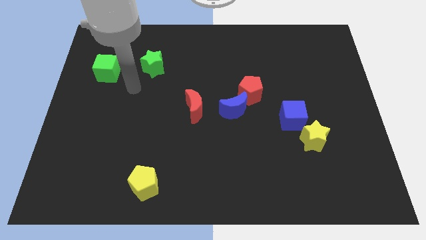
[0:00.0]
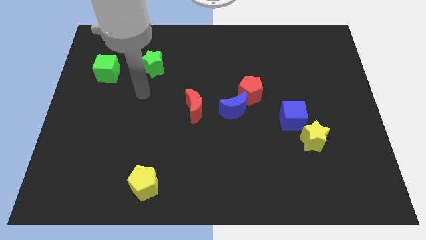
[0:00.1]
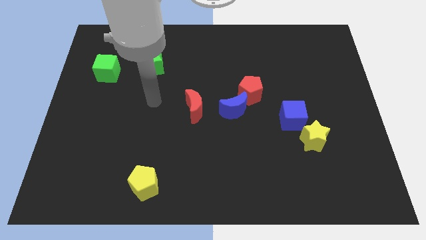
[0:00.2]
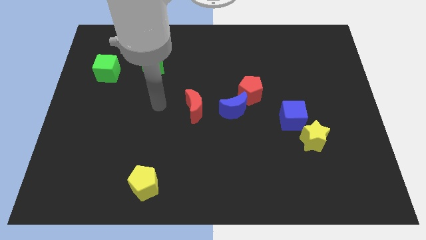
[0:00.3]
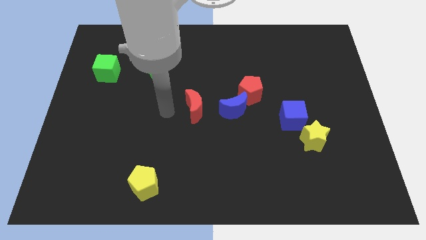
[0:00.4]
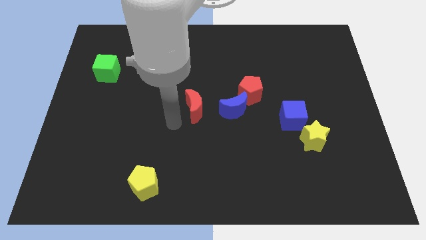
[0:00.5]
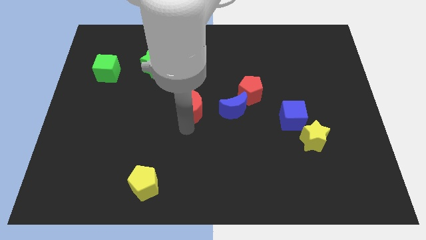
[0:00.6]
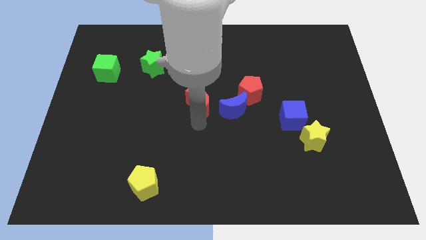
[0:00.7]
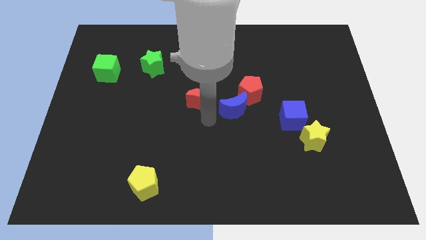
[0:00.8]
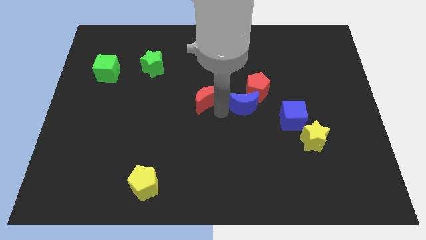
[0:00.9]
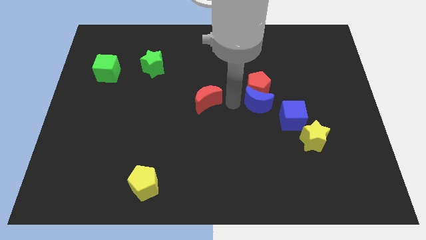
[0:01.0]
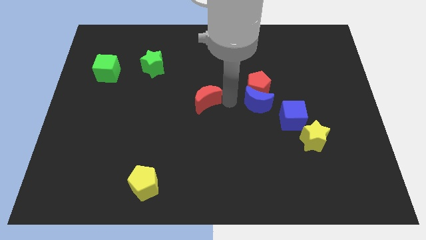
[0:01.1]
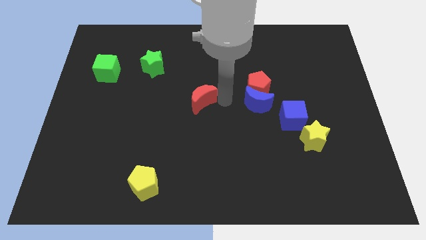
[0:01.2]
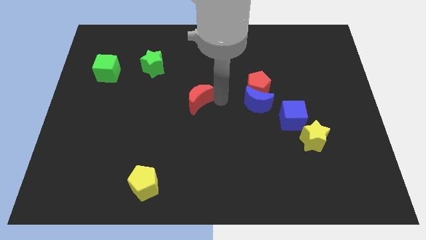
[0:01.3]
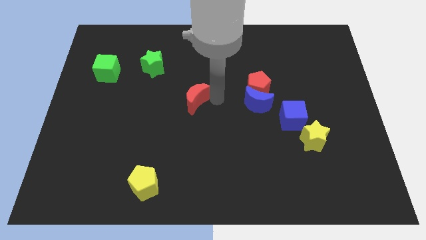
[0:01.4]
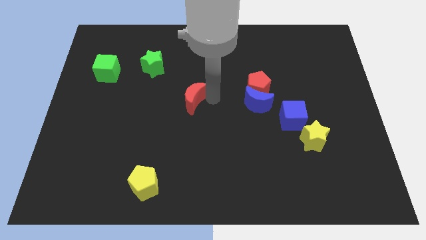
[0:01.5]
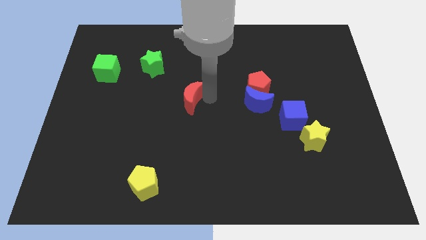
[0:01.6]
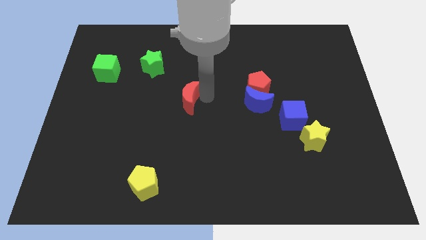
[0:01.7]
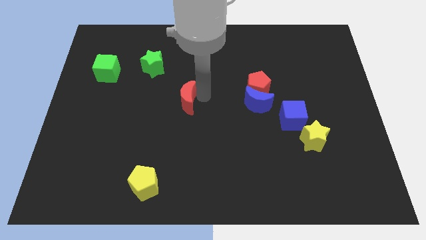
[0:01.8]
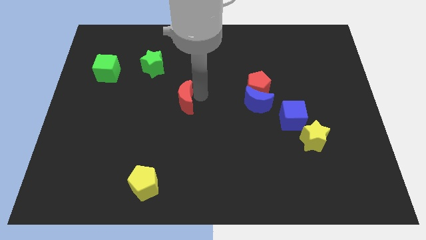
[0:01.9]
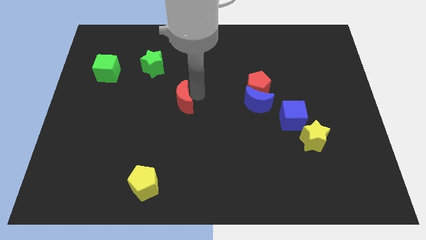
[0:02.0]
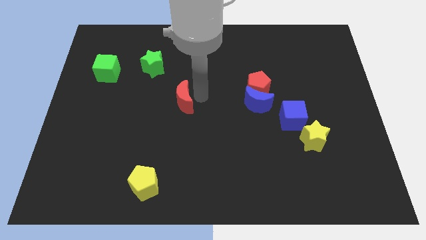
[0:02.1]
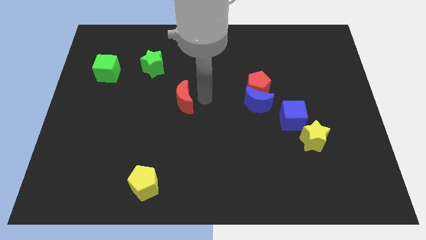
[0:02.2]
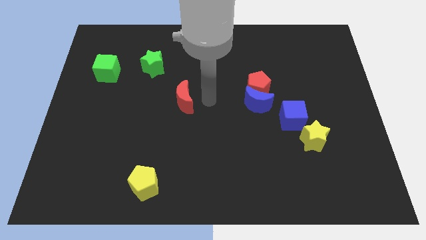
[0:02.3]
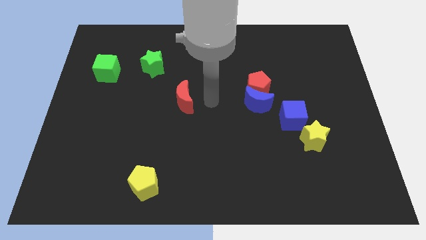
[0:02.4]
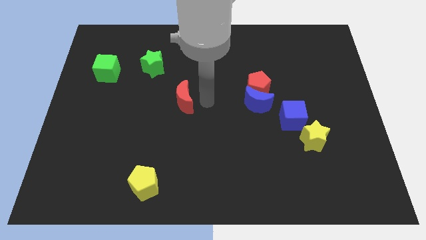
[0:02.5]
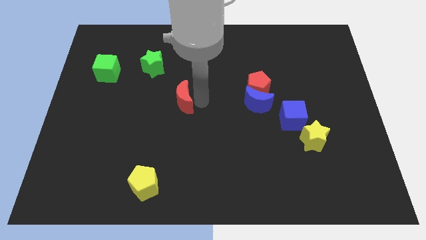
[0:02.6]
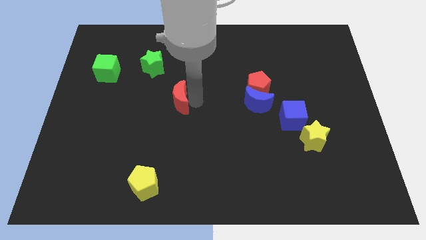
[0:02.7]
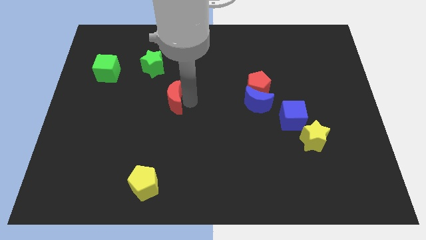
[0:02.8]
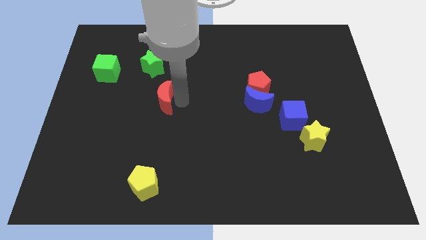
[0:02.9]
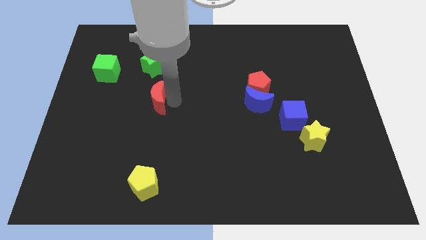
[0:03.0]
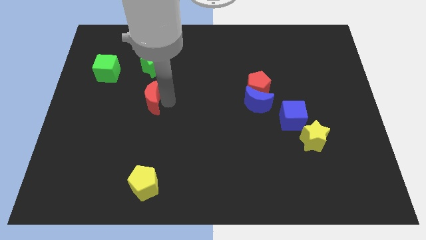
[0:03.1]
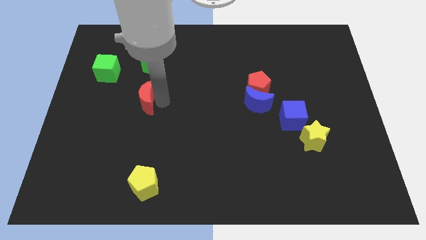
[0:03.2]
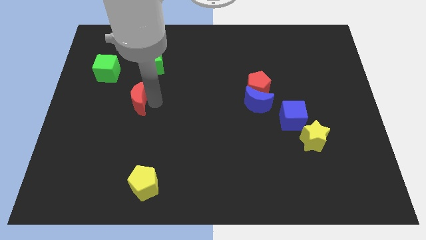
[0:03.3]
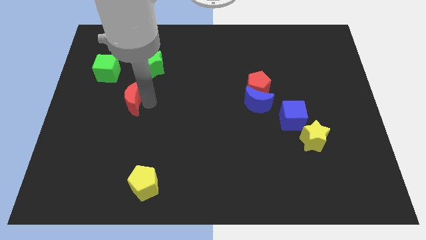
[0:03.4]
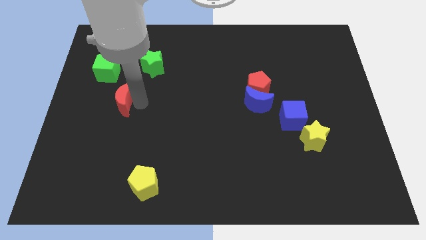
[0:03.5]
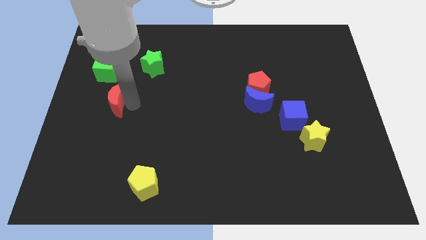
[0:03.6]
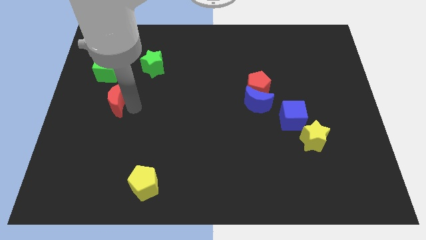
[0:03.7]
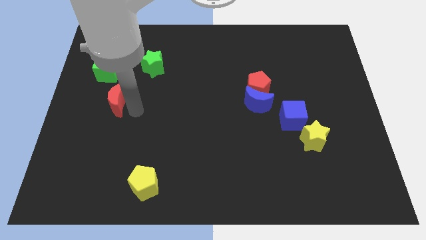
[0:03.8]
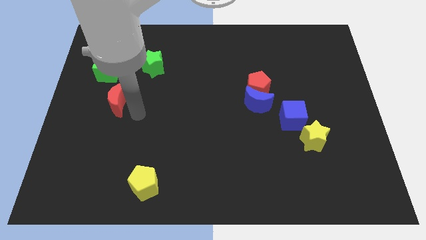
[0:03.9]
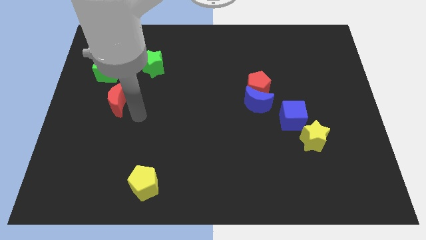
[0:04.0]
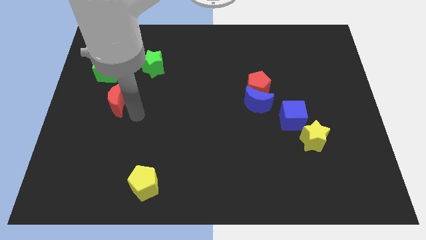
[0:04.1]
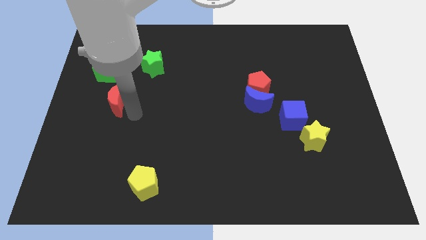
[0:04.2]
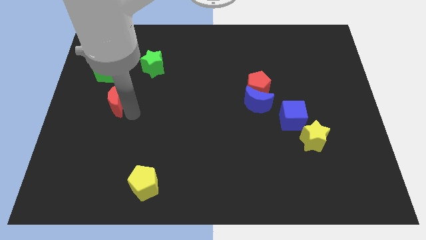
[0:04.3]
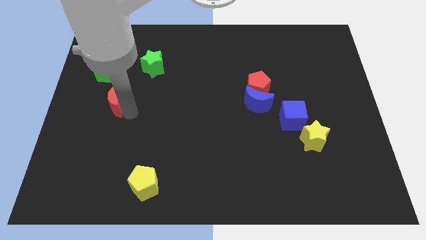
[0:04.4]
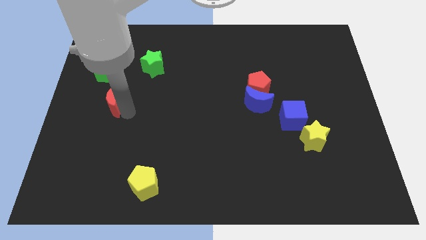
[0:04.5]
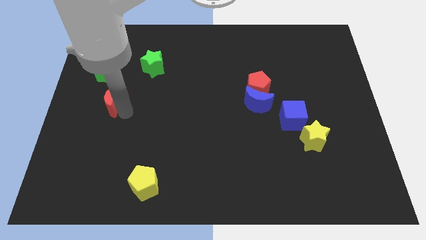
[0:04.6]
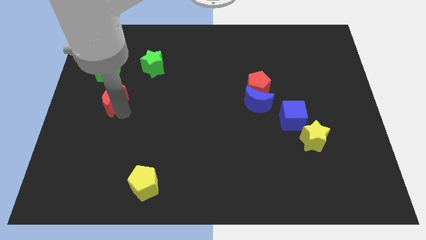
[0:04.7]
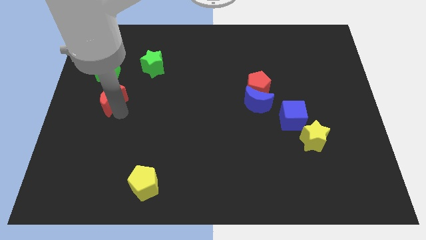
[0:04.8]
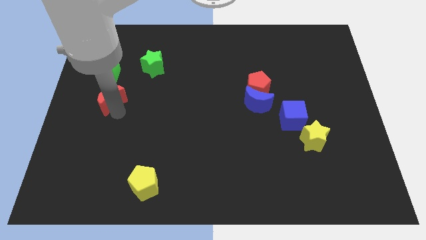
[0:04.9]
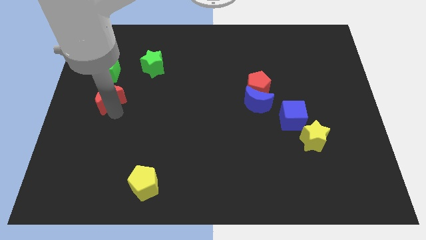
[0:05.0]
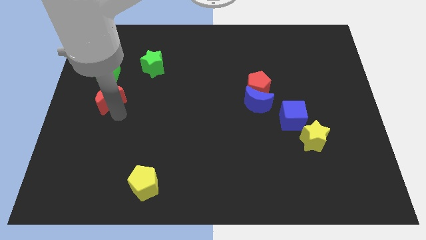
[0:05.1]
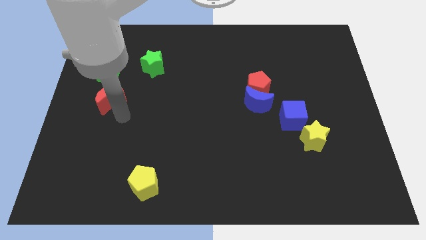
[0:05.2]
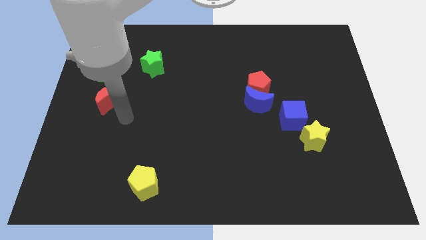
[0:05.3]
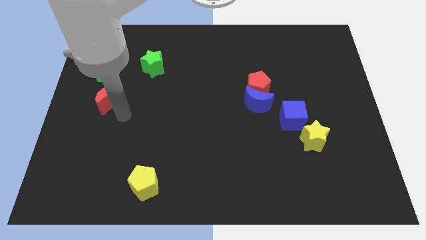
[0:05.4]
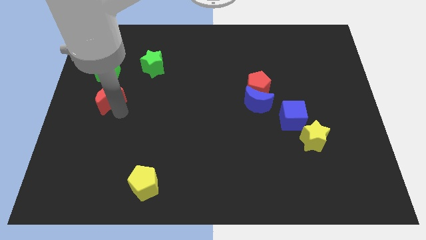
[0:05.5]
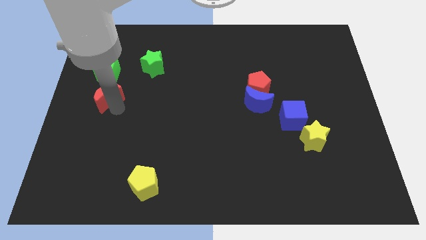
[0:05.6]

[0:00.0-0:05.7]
move the red moon to the center left
